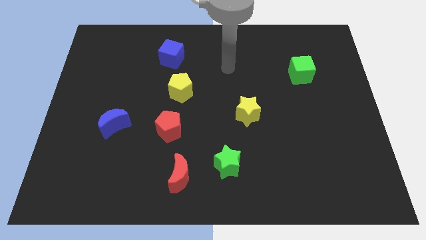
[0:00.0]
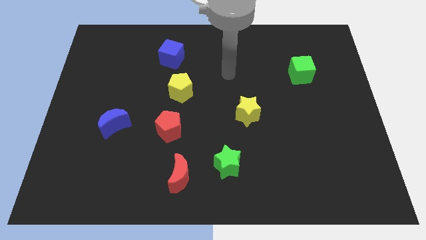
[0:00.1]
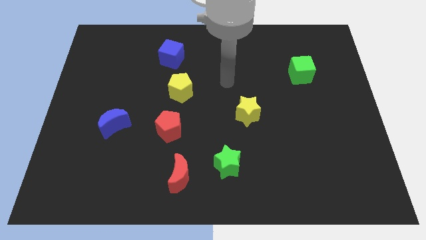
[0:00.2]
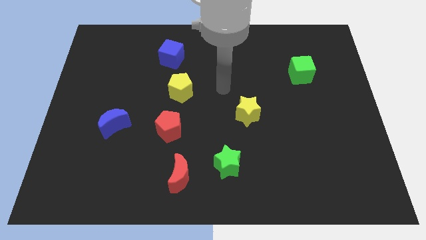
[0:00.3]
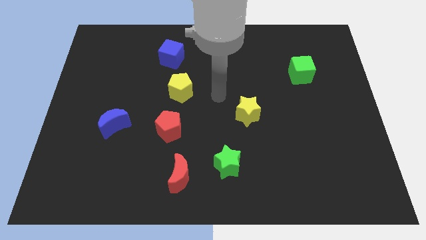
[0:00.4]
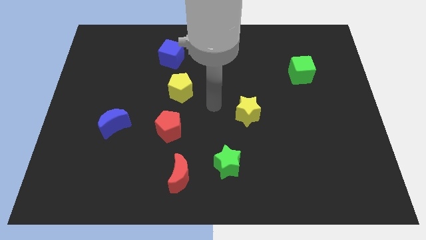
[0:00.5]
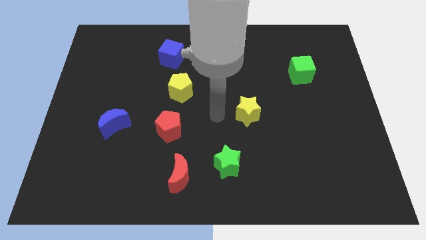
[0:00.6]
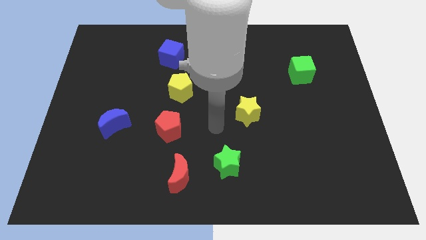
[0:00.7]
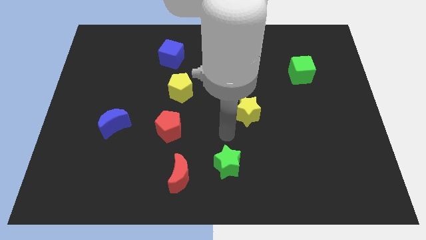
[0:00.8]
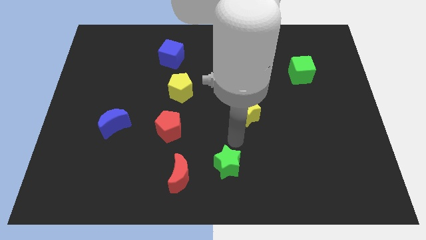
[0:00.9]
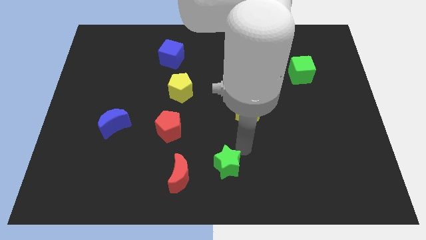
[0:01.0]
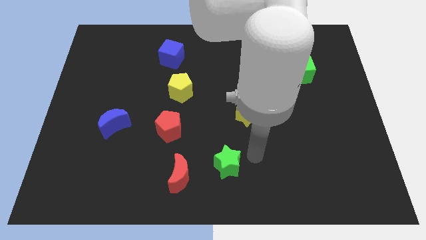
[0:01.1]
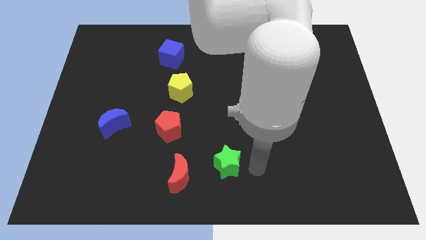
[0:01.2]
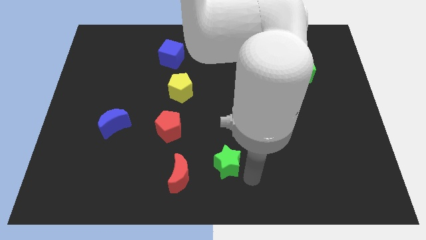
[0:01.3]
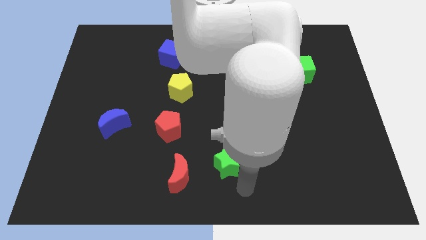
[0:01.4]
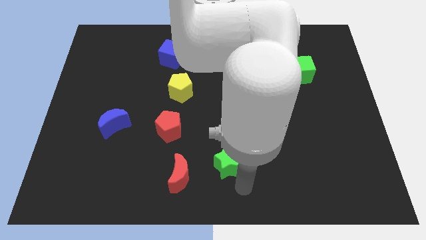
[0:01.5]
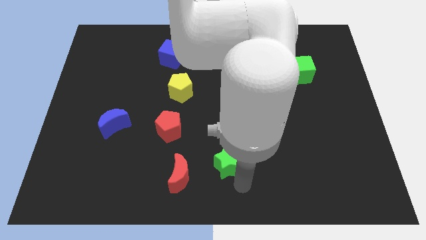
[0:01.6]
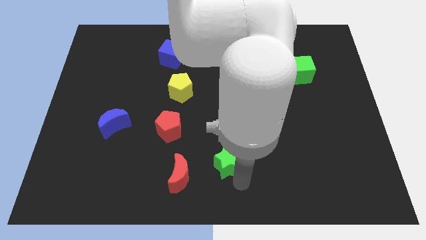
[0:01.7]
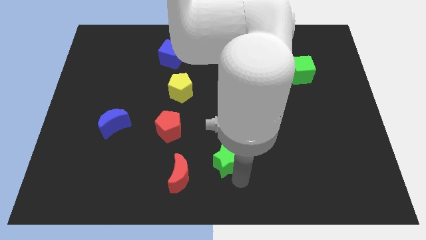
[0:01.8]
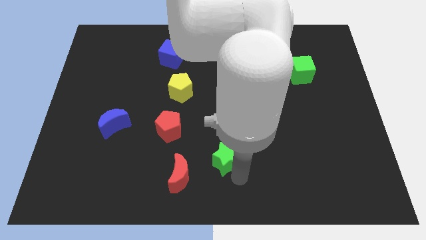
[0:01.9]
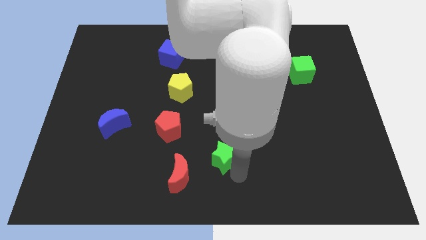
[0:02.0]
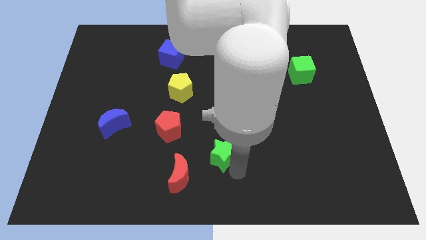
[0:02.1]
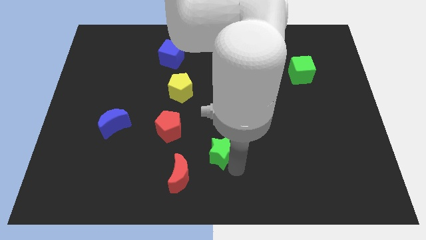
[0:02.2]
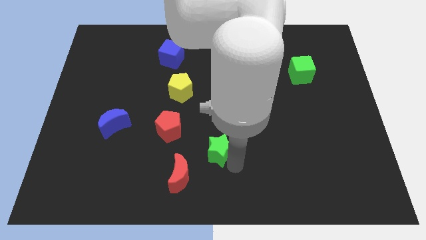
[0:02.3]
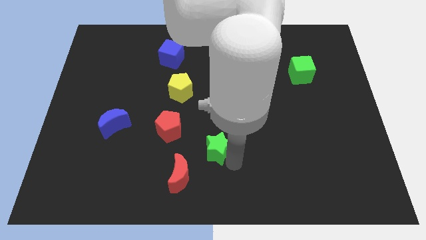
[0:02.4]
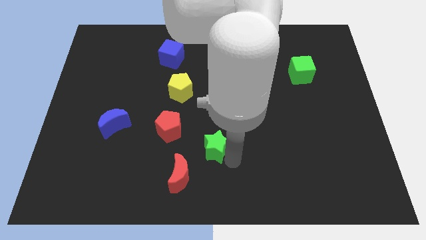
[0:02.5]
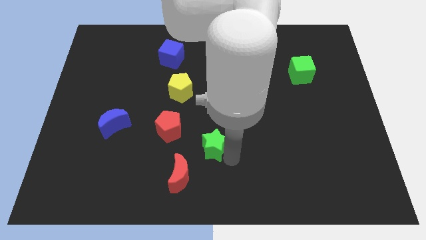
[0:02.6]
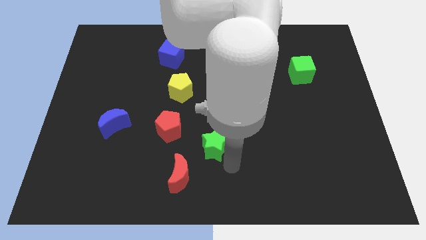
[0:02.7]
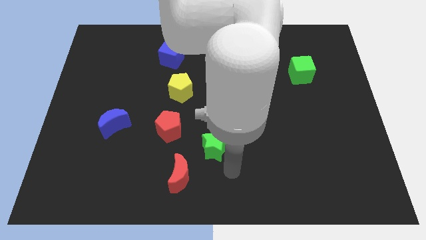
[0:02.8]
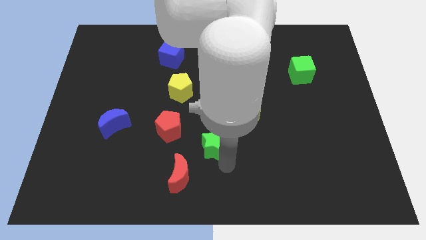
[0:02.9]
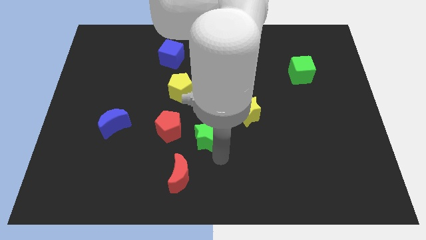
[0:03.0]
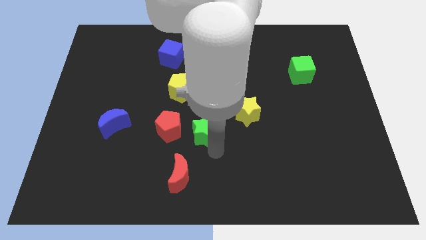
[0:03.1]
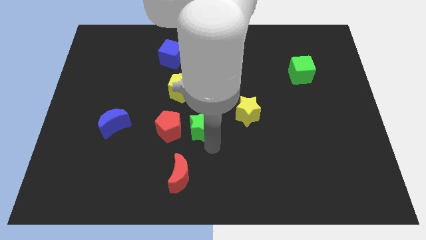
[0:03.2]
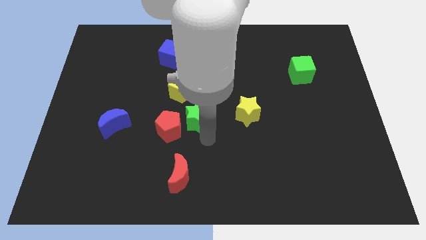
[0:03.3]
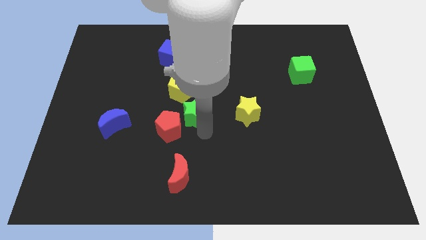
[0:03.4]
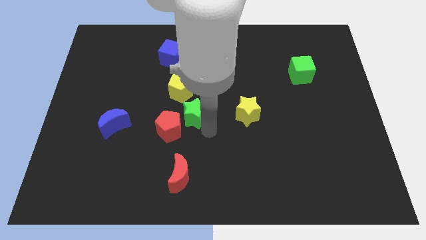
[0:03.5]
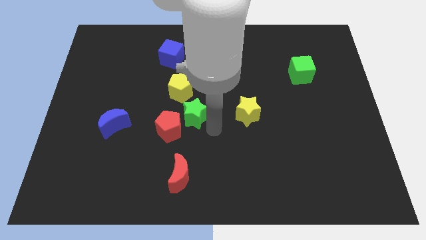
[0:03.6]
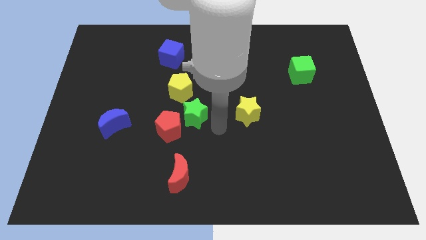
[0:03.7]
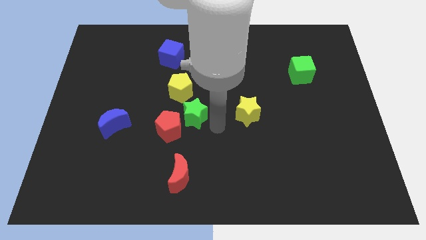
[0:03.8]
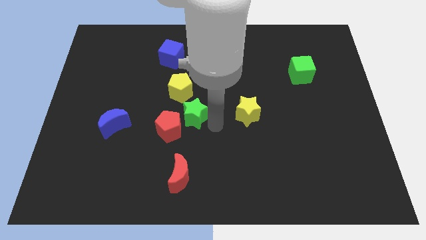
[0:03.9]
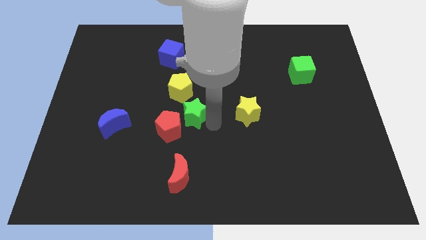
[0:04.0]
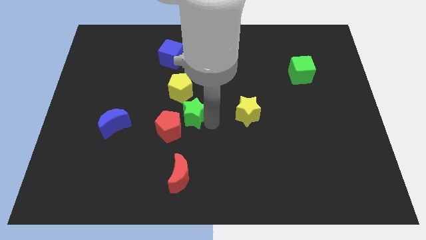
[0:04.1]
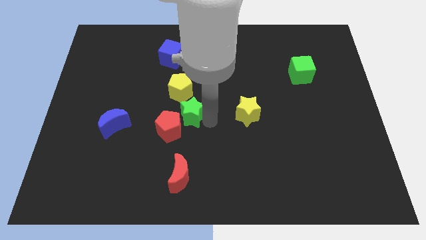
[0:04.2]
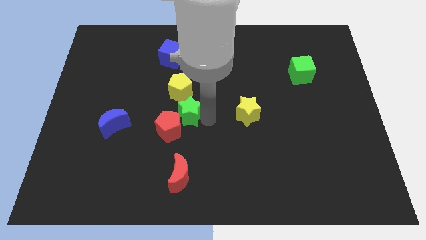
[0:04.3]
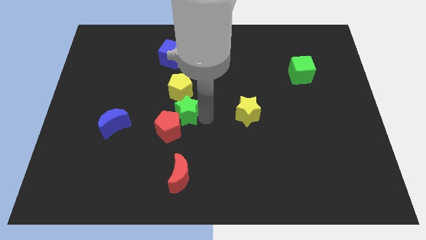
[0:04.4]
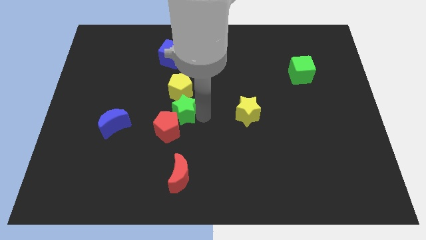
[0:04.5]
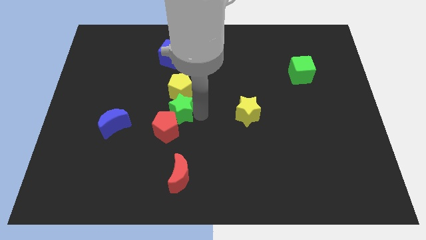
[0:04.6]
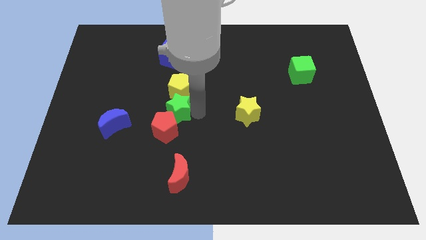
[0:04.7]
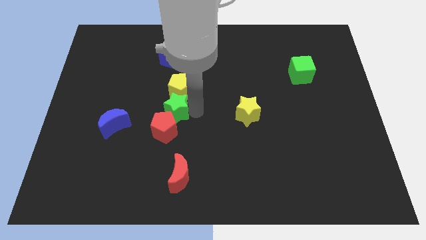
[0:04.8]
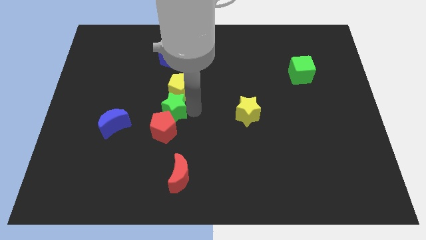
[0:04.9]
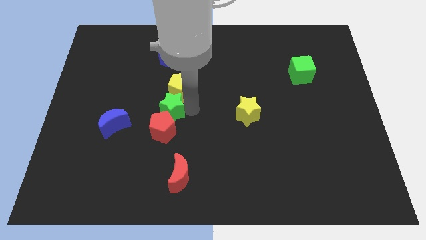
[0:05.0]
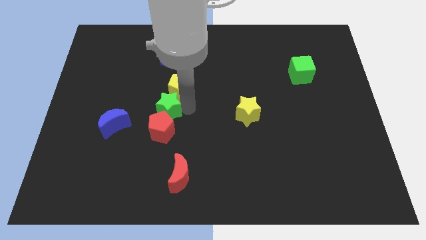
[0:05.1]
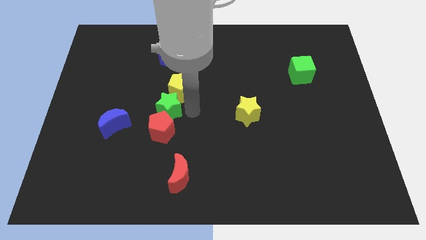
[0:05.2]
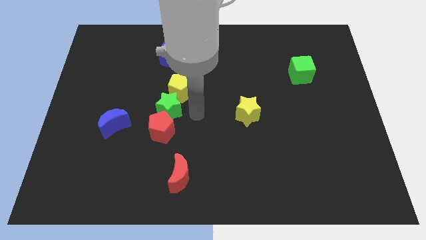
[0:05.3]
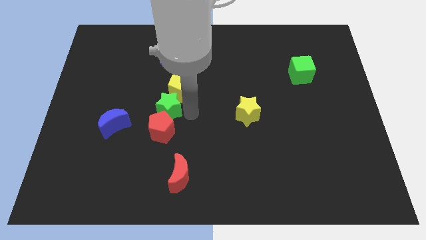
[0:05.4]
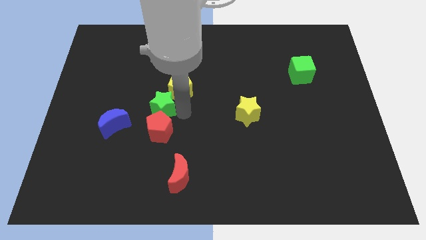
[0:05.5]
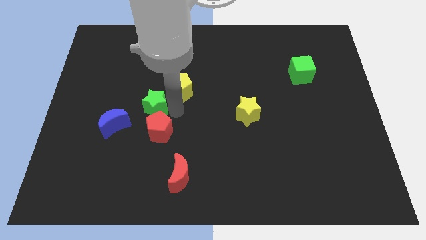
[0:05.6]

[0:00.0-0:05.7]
put the green star diagonally up and to the right of the blue moon

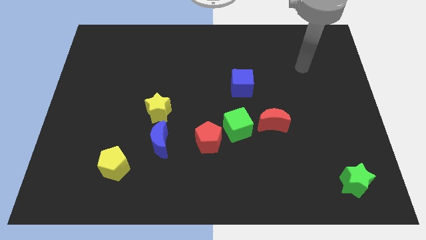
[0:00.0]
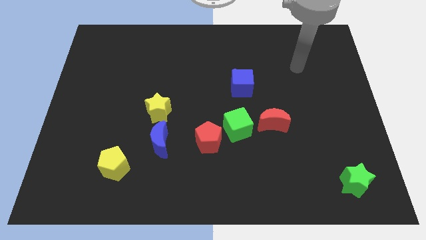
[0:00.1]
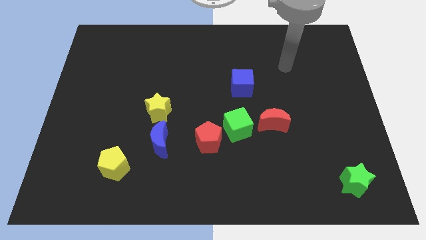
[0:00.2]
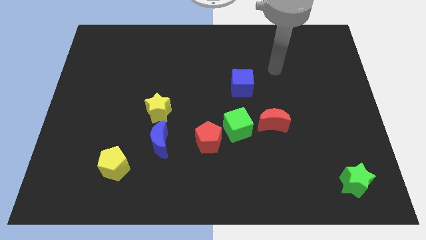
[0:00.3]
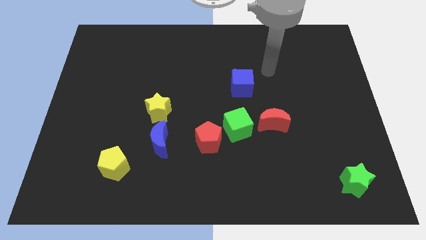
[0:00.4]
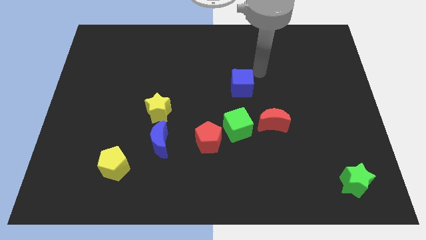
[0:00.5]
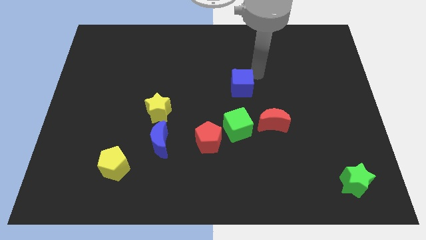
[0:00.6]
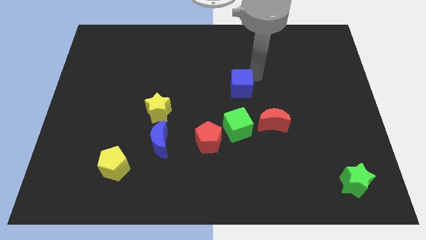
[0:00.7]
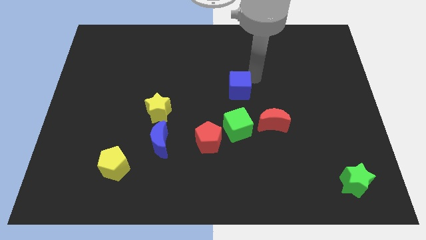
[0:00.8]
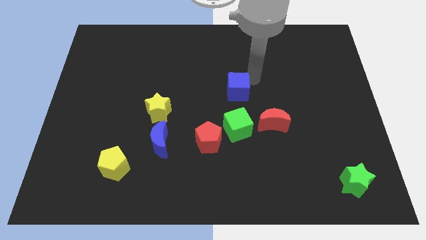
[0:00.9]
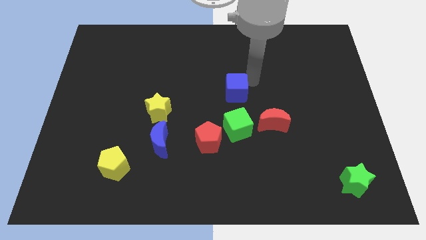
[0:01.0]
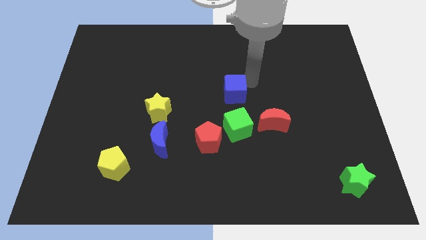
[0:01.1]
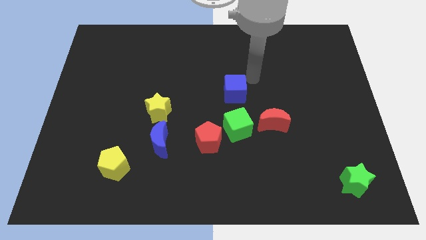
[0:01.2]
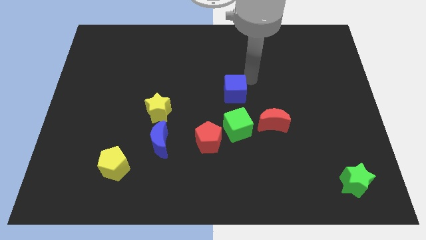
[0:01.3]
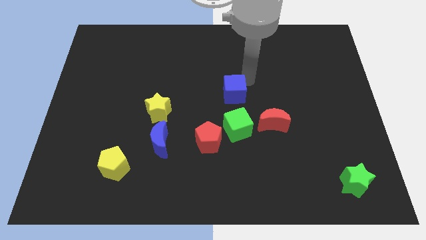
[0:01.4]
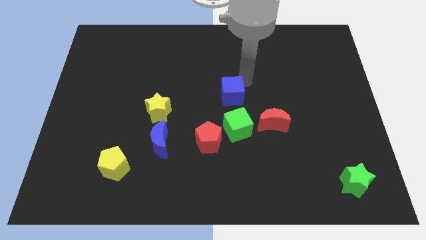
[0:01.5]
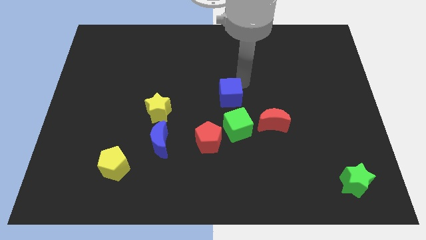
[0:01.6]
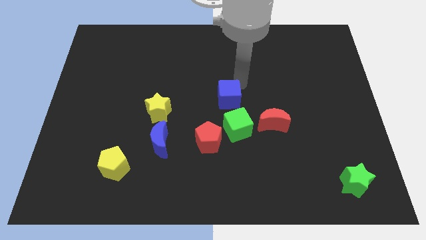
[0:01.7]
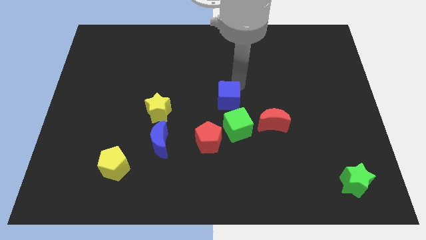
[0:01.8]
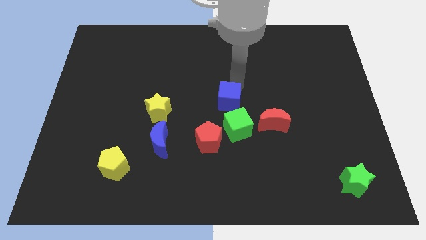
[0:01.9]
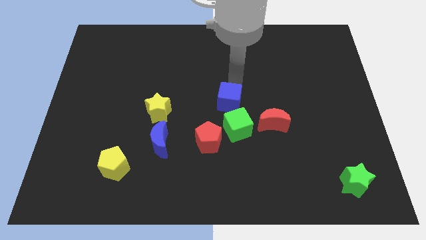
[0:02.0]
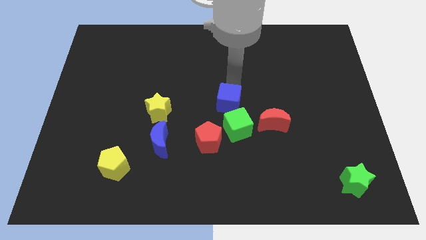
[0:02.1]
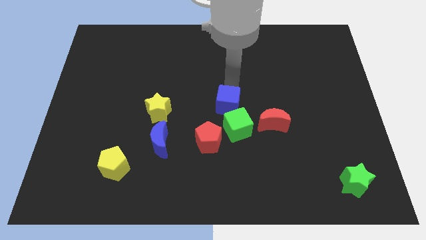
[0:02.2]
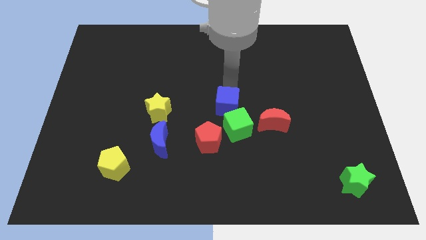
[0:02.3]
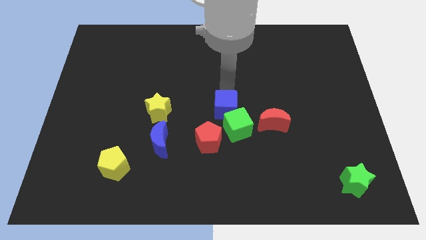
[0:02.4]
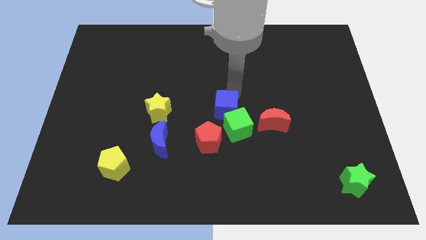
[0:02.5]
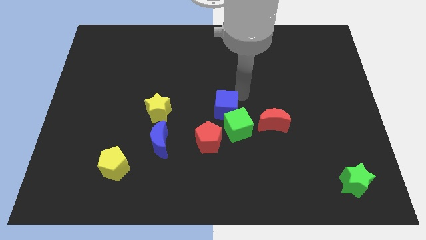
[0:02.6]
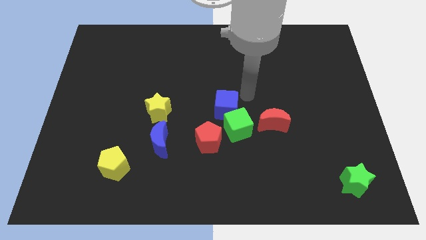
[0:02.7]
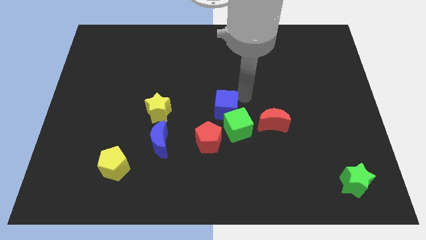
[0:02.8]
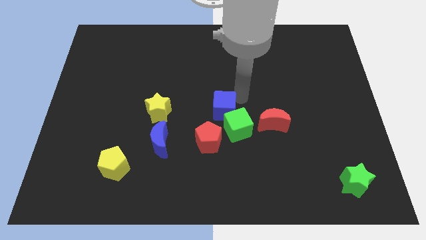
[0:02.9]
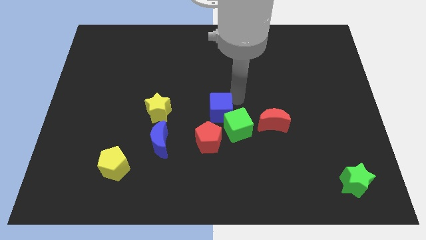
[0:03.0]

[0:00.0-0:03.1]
push the blue cube just left of the green cube
